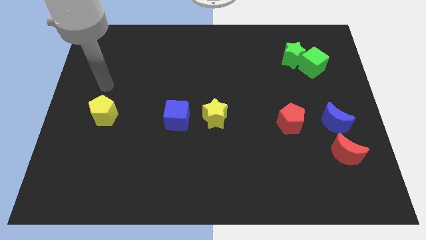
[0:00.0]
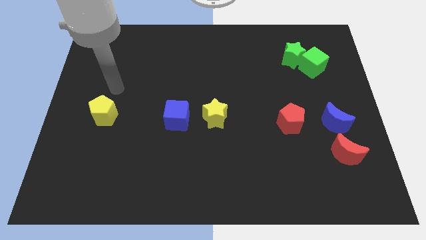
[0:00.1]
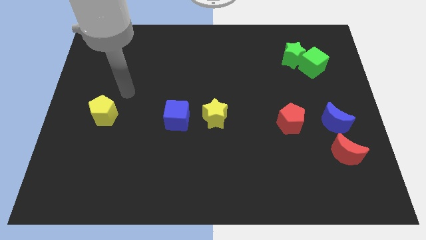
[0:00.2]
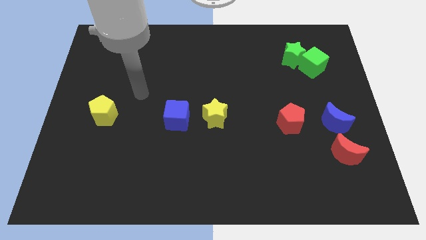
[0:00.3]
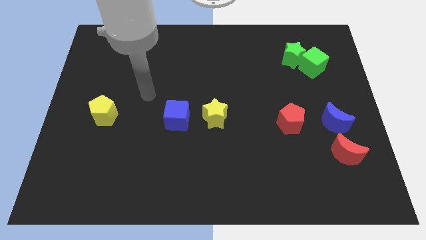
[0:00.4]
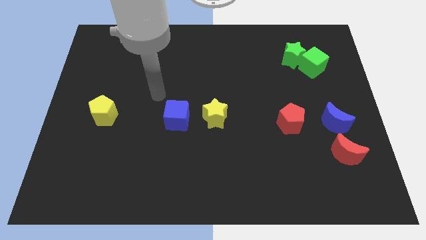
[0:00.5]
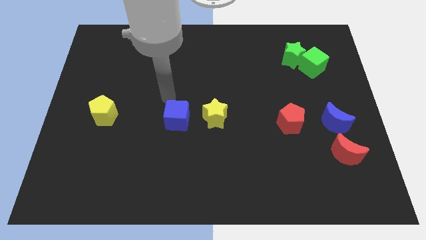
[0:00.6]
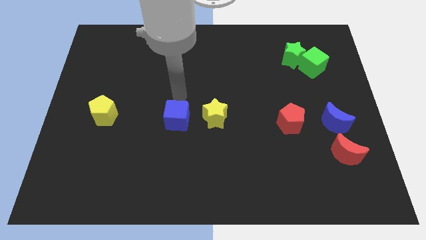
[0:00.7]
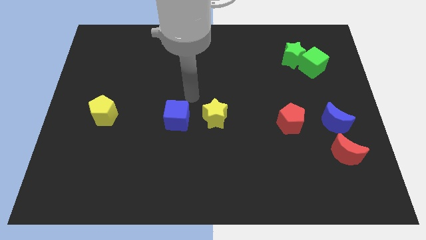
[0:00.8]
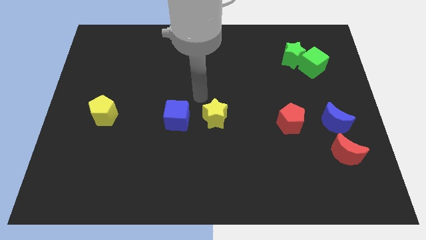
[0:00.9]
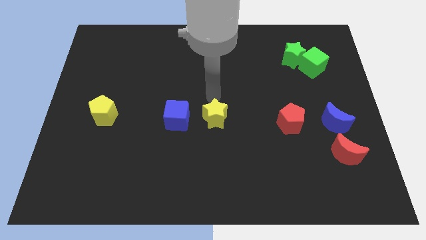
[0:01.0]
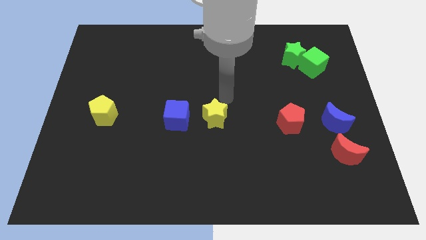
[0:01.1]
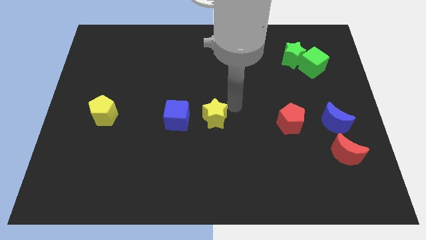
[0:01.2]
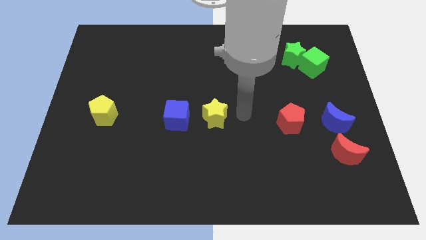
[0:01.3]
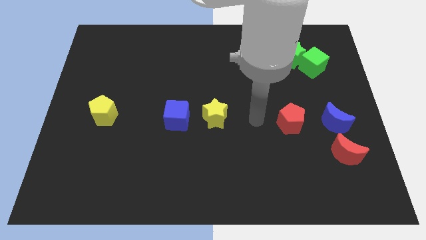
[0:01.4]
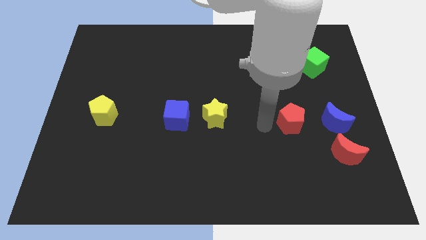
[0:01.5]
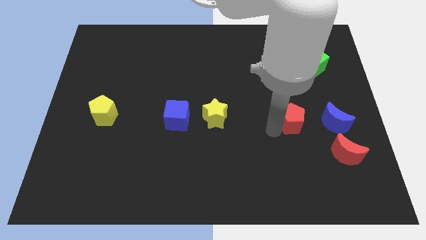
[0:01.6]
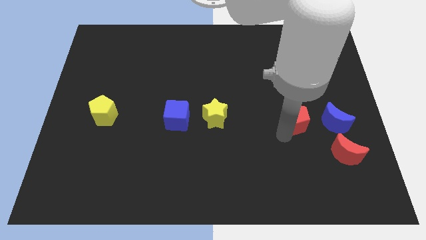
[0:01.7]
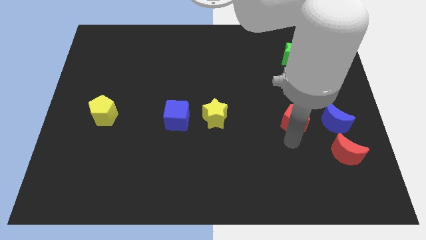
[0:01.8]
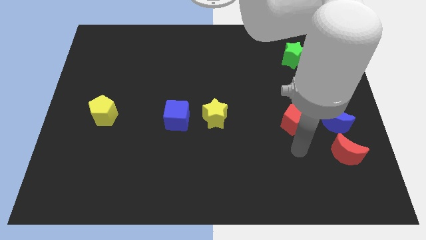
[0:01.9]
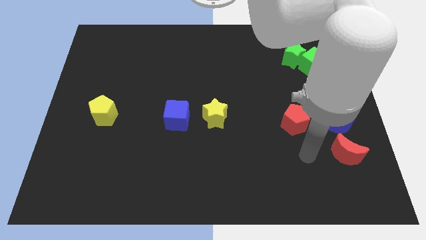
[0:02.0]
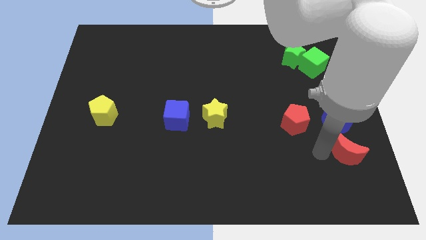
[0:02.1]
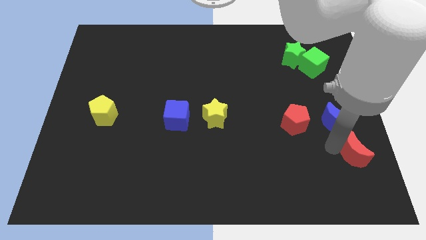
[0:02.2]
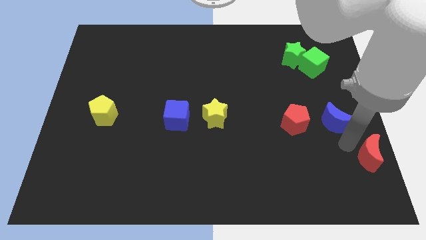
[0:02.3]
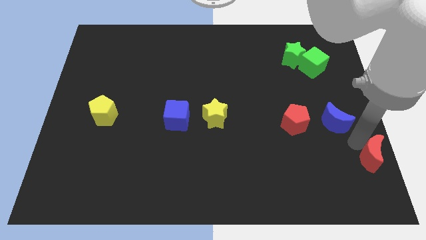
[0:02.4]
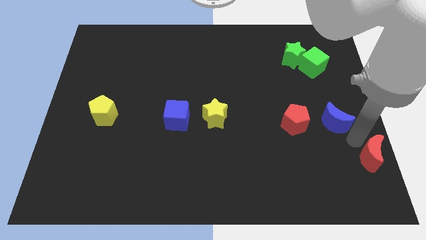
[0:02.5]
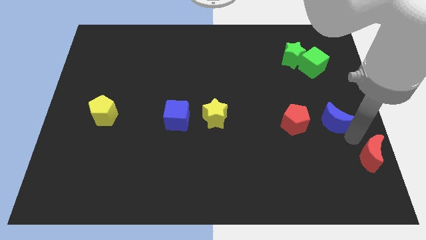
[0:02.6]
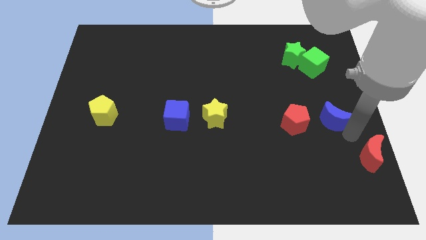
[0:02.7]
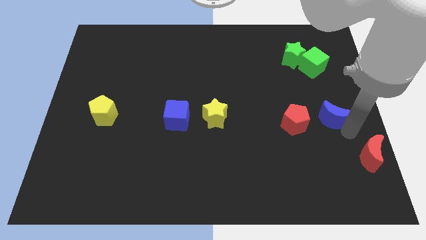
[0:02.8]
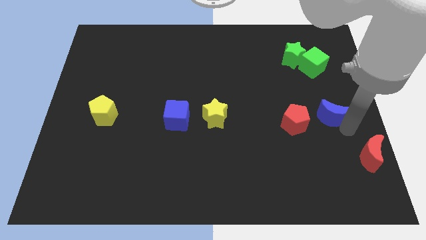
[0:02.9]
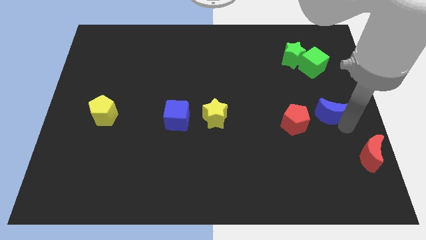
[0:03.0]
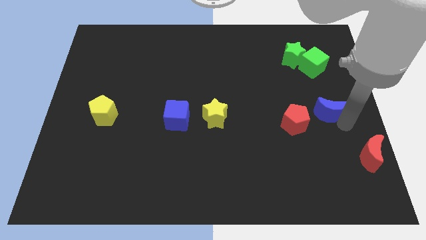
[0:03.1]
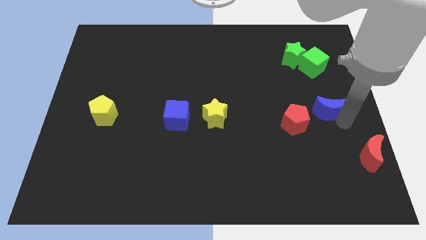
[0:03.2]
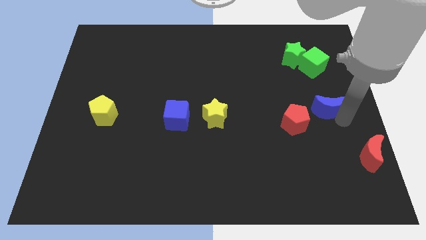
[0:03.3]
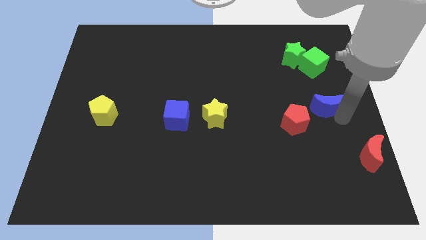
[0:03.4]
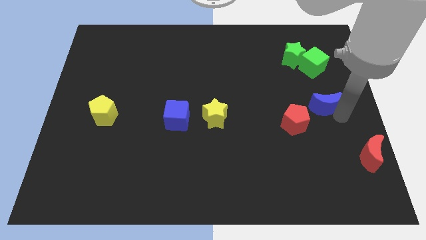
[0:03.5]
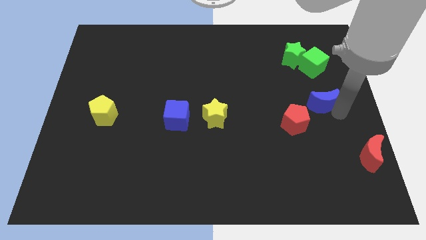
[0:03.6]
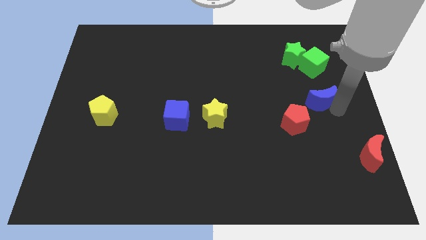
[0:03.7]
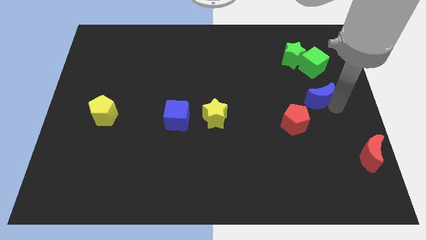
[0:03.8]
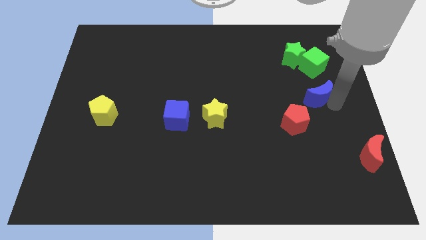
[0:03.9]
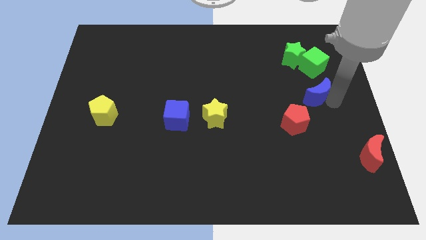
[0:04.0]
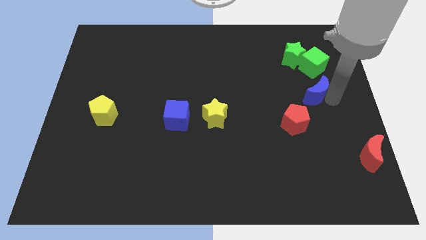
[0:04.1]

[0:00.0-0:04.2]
slightly push the blue moon upwards and then to the left

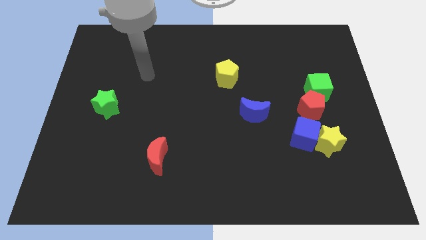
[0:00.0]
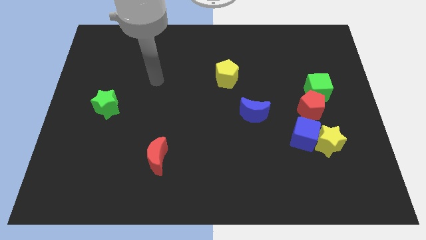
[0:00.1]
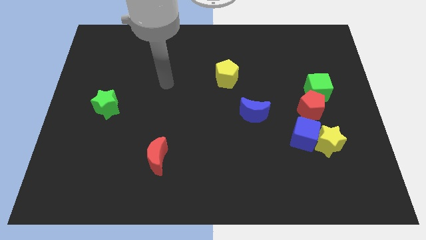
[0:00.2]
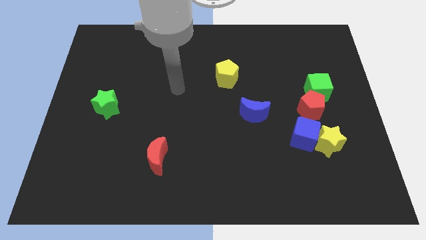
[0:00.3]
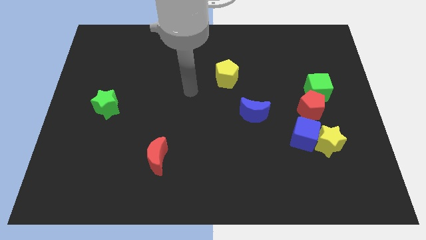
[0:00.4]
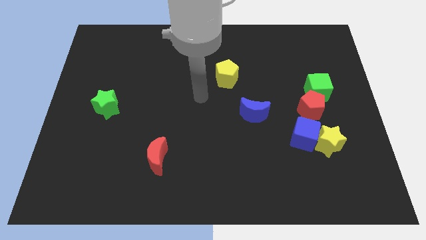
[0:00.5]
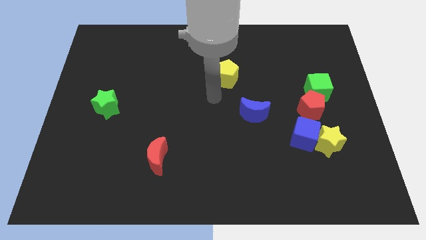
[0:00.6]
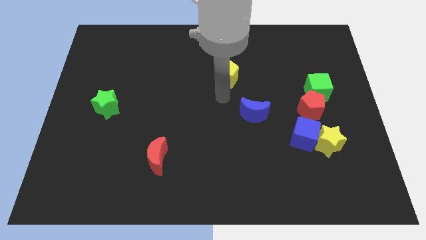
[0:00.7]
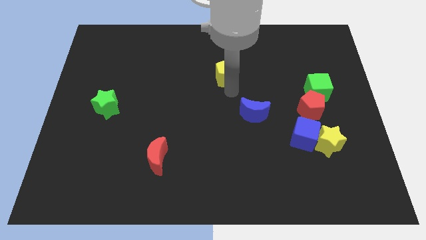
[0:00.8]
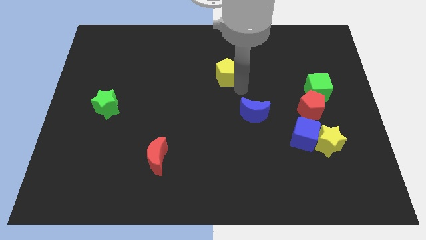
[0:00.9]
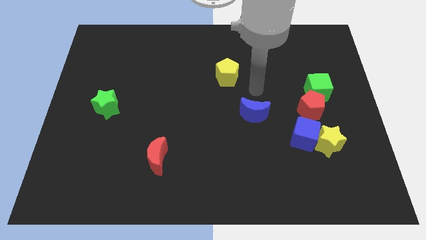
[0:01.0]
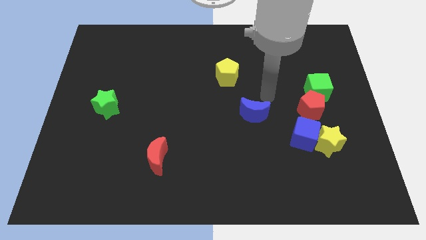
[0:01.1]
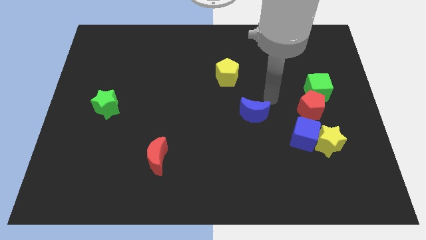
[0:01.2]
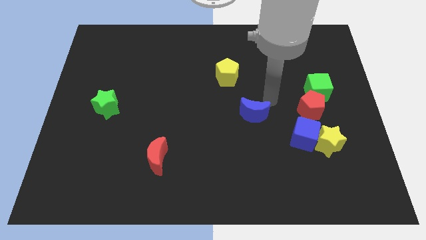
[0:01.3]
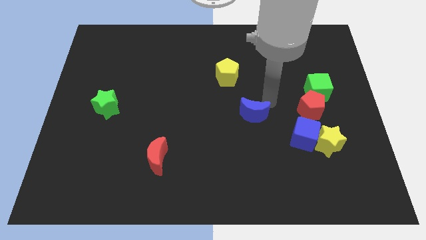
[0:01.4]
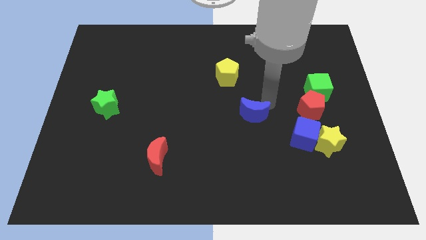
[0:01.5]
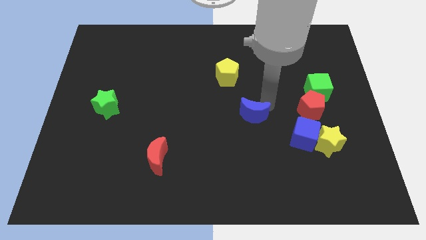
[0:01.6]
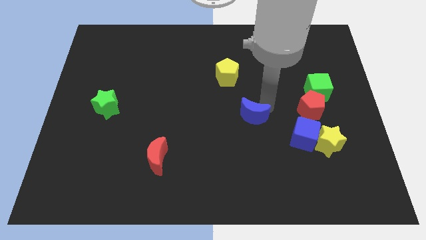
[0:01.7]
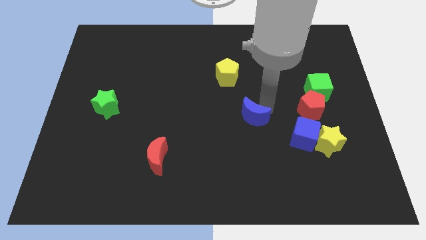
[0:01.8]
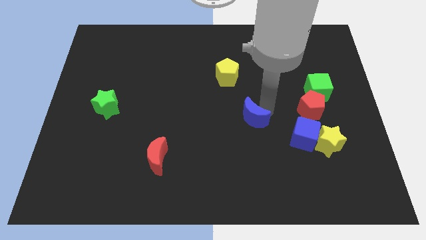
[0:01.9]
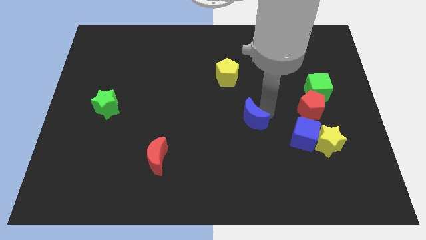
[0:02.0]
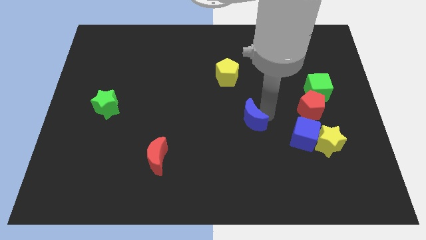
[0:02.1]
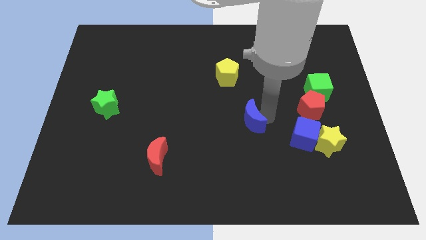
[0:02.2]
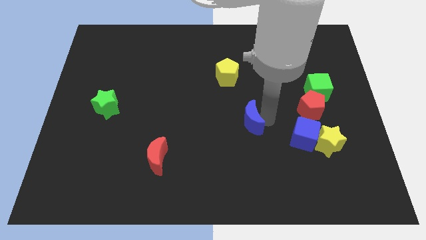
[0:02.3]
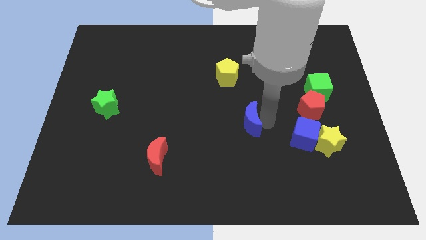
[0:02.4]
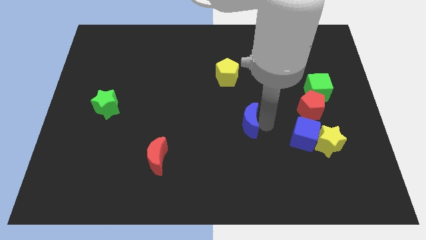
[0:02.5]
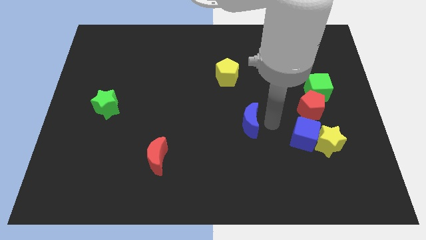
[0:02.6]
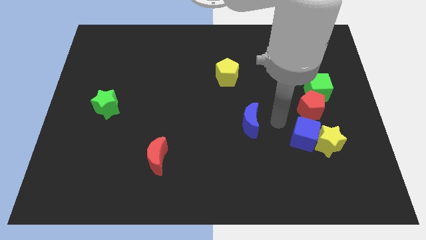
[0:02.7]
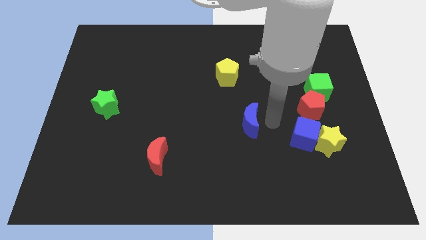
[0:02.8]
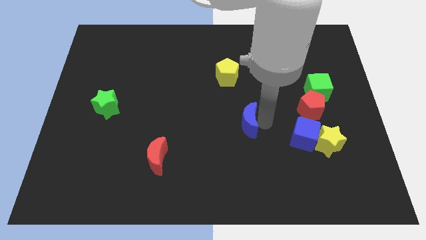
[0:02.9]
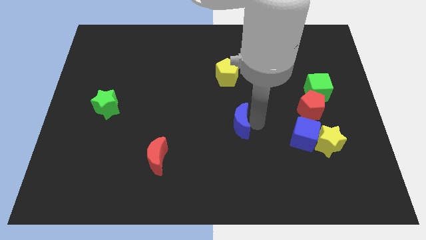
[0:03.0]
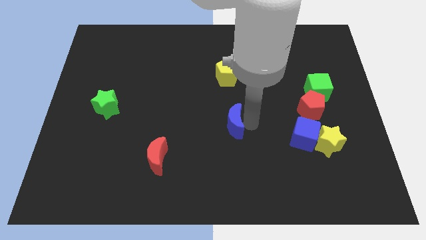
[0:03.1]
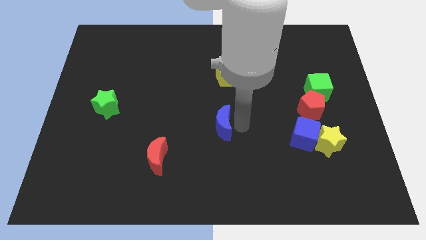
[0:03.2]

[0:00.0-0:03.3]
push the blue moon somewhat left
